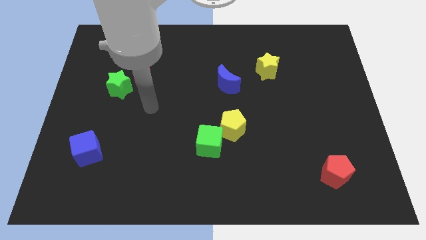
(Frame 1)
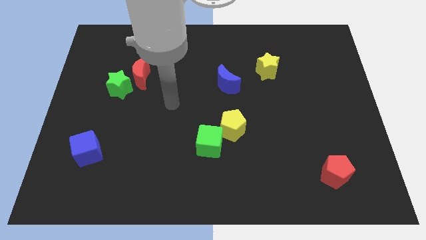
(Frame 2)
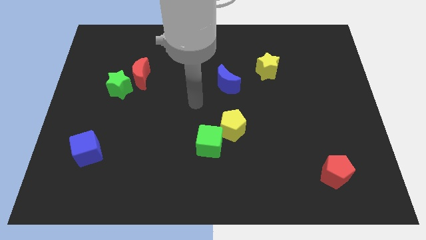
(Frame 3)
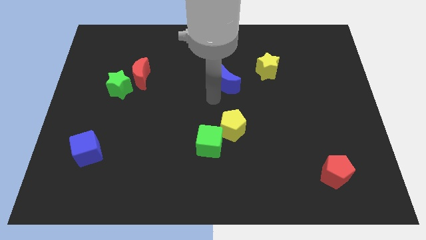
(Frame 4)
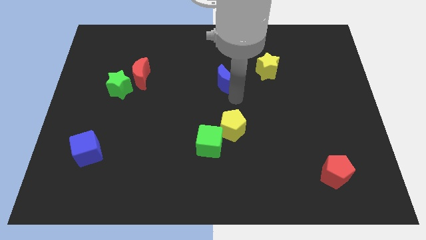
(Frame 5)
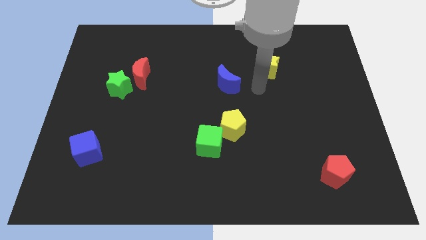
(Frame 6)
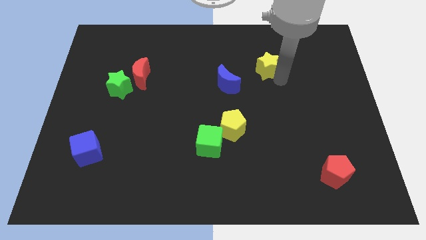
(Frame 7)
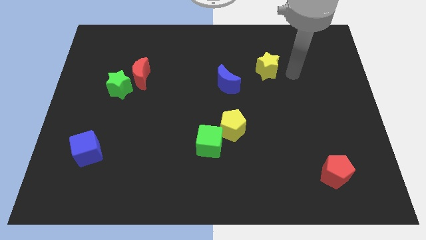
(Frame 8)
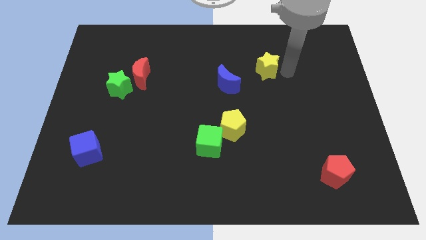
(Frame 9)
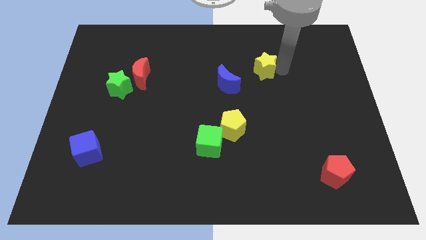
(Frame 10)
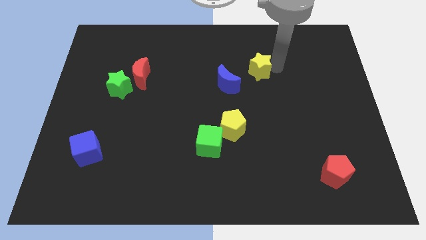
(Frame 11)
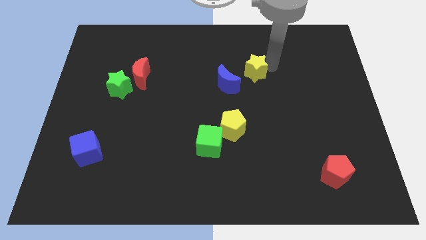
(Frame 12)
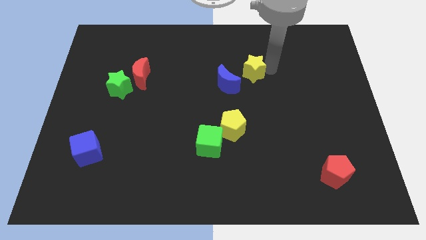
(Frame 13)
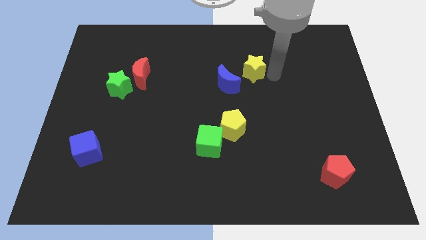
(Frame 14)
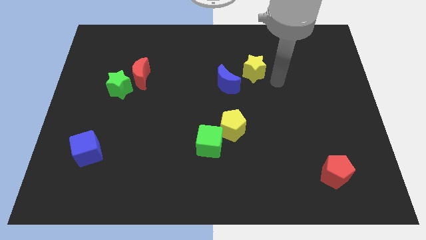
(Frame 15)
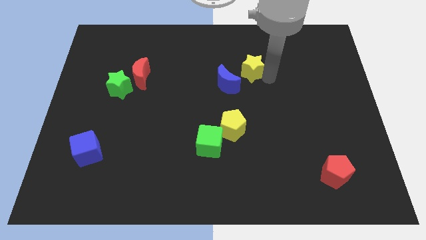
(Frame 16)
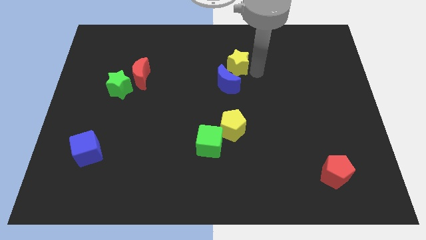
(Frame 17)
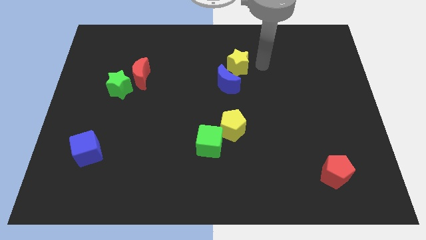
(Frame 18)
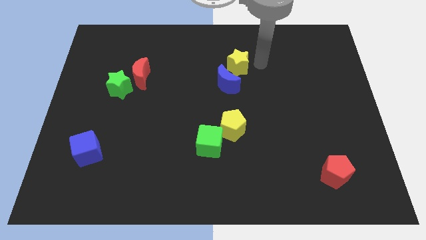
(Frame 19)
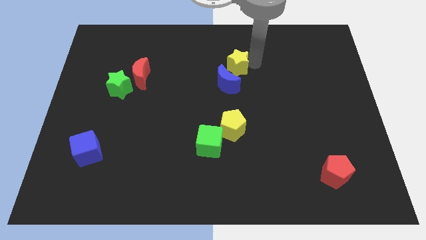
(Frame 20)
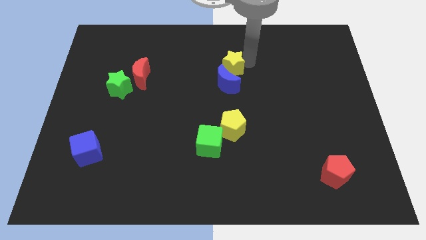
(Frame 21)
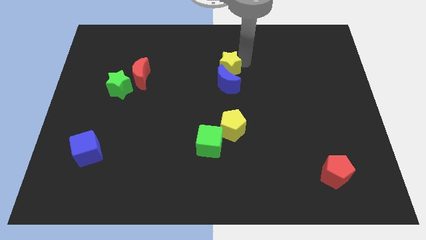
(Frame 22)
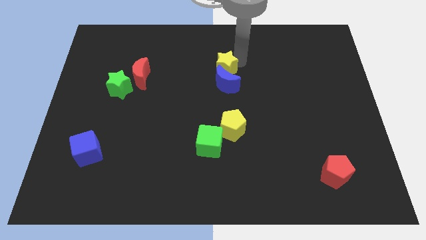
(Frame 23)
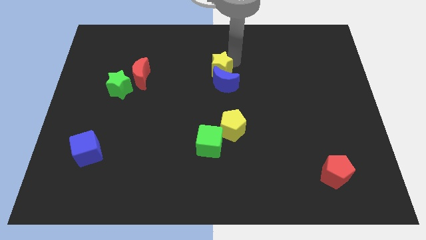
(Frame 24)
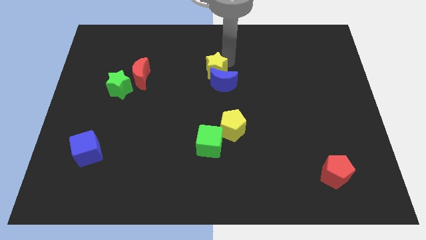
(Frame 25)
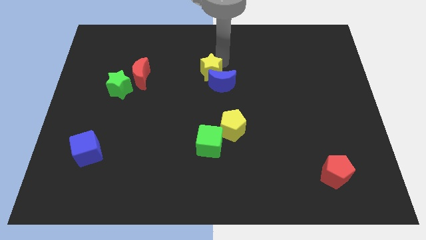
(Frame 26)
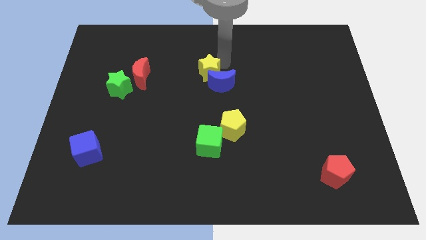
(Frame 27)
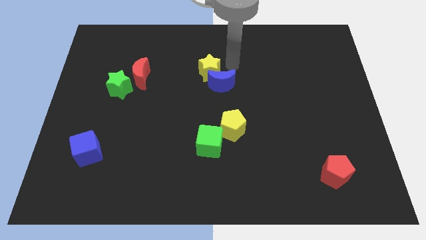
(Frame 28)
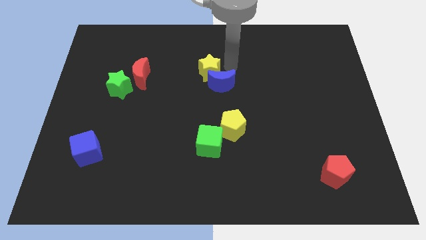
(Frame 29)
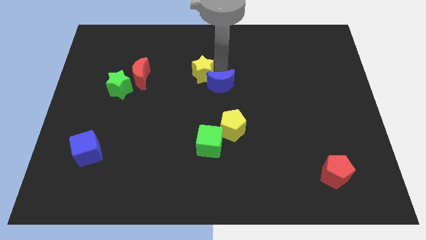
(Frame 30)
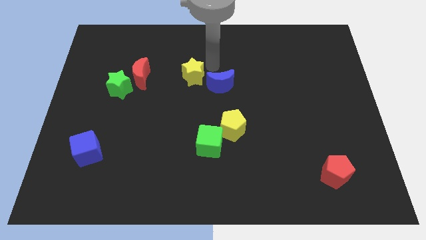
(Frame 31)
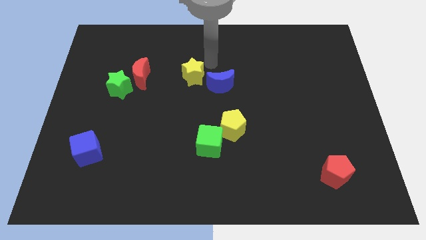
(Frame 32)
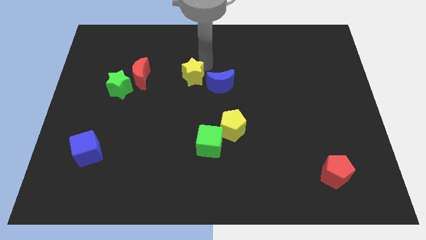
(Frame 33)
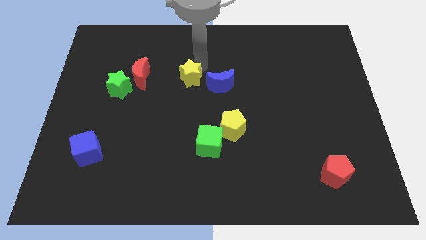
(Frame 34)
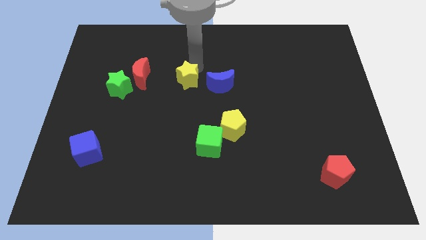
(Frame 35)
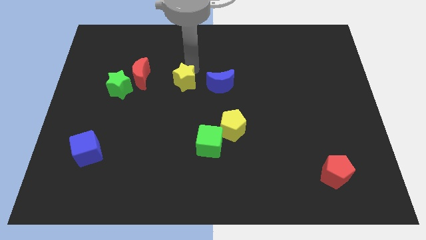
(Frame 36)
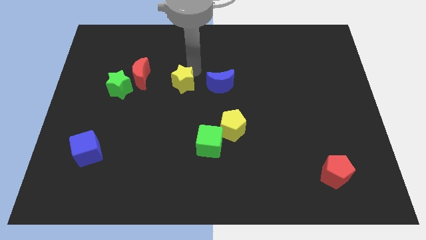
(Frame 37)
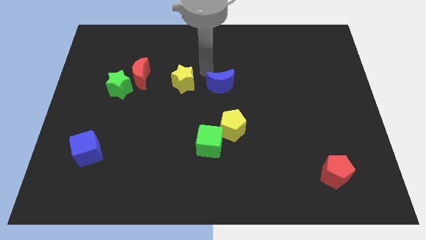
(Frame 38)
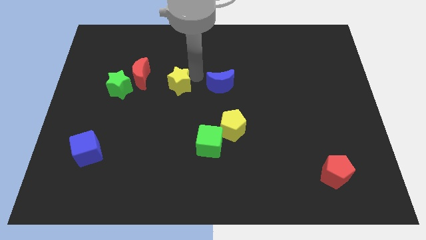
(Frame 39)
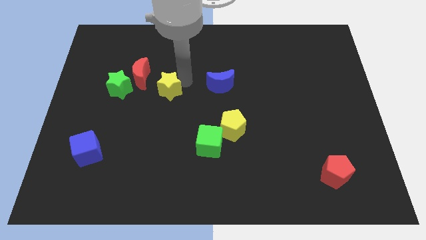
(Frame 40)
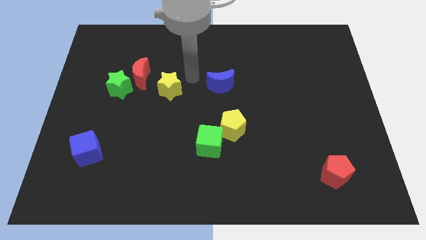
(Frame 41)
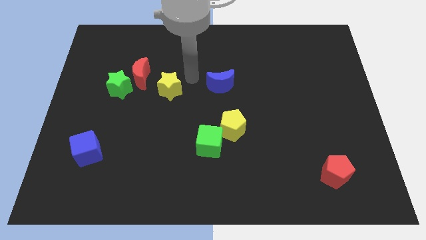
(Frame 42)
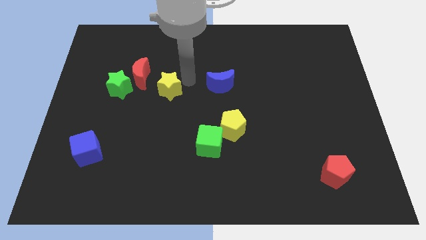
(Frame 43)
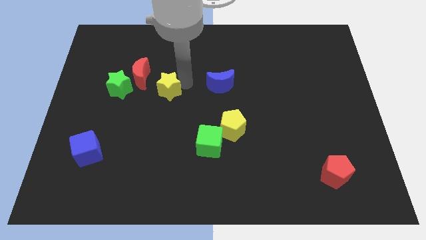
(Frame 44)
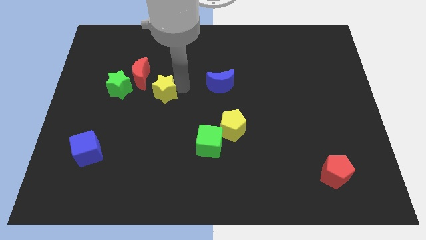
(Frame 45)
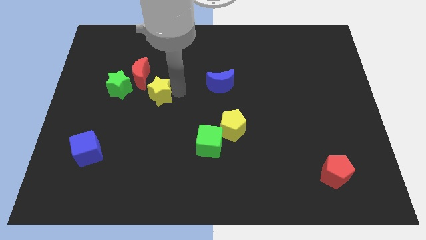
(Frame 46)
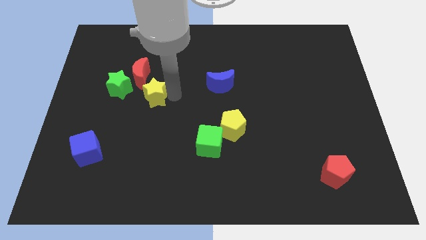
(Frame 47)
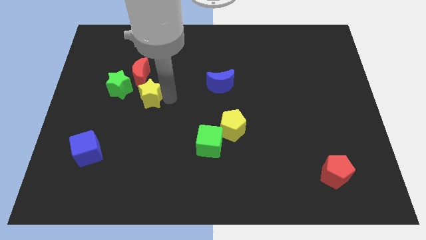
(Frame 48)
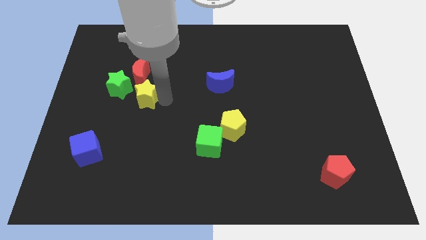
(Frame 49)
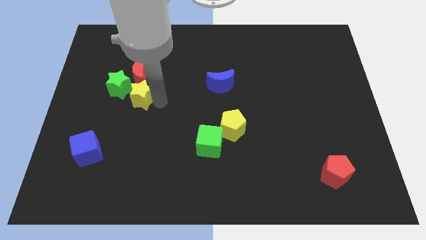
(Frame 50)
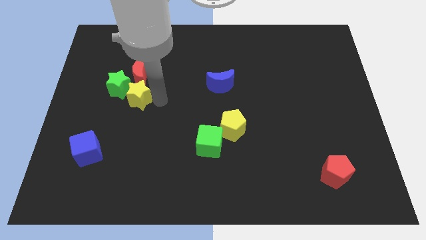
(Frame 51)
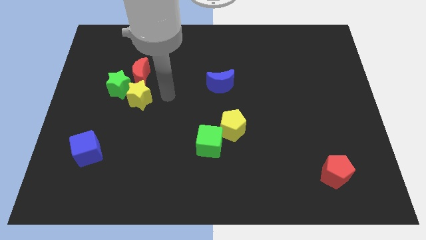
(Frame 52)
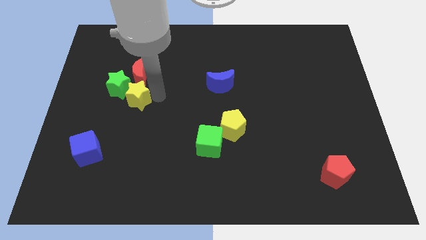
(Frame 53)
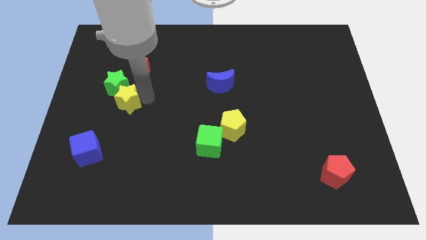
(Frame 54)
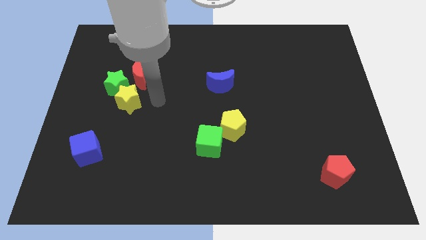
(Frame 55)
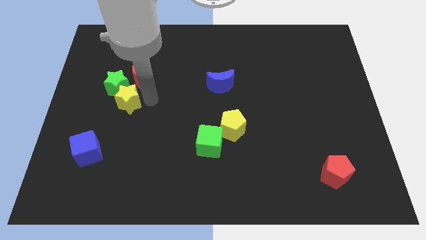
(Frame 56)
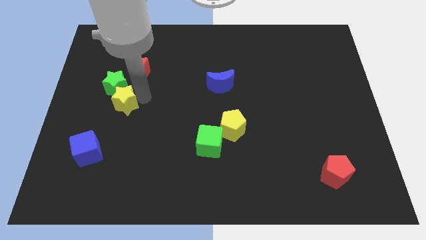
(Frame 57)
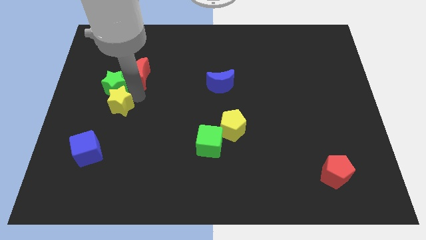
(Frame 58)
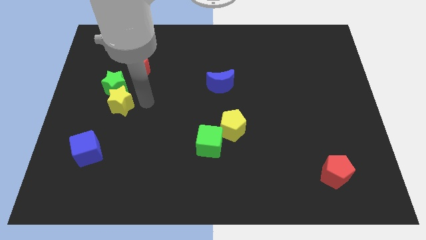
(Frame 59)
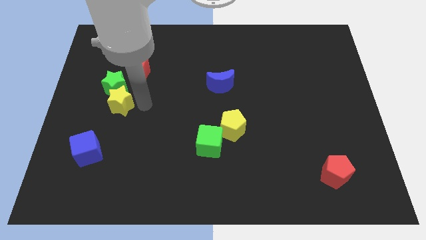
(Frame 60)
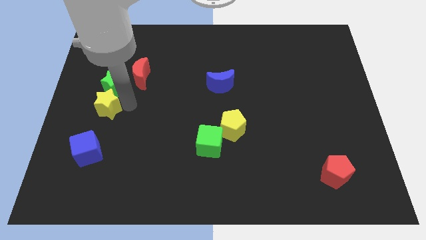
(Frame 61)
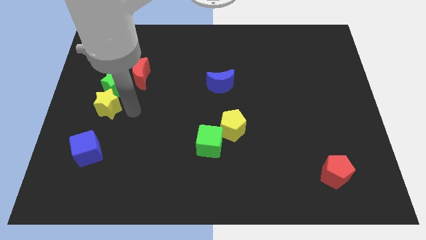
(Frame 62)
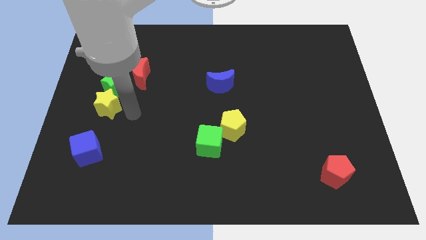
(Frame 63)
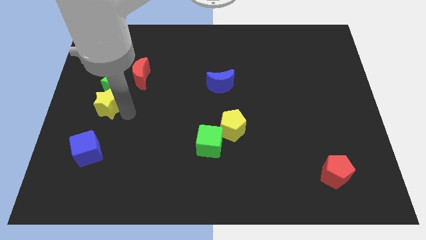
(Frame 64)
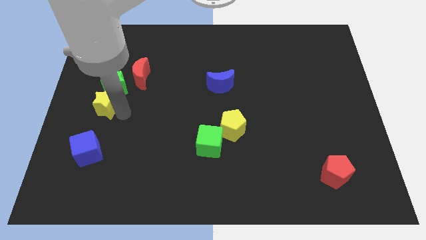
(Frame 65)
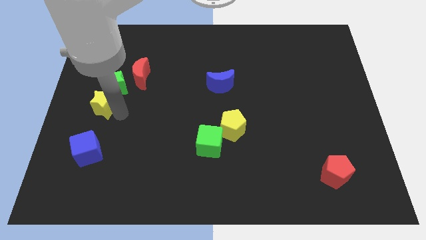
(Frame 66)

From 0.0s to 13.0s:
slide the yellow star to the left side of the board
